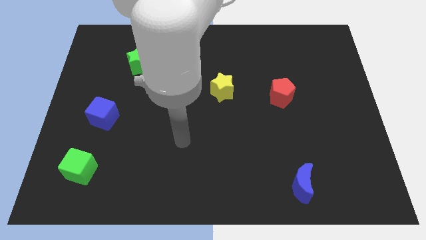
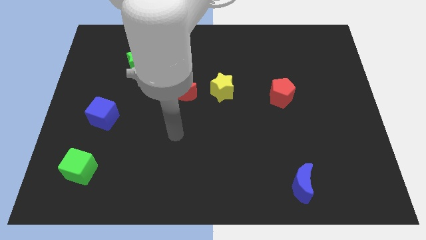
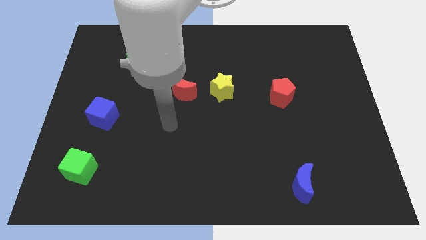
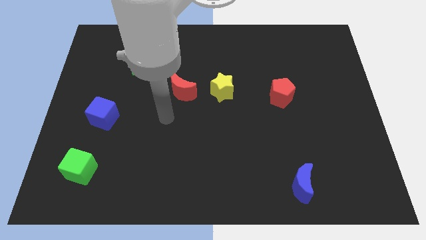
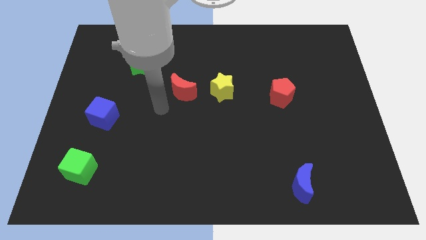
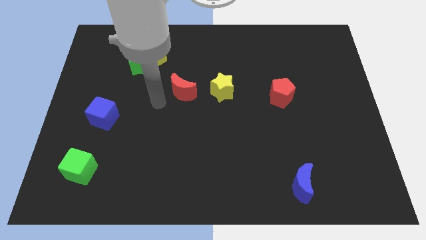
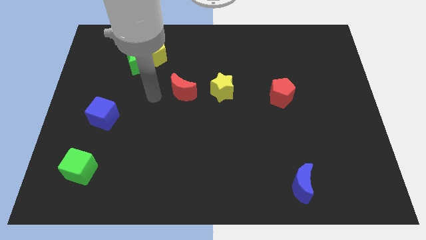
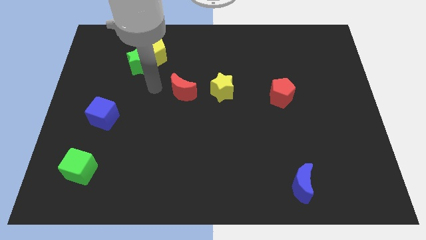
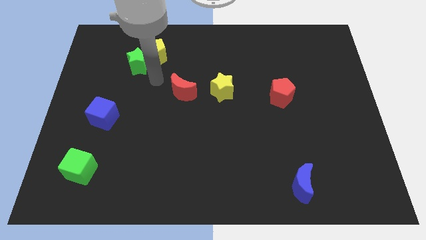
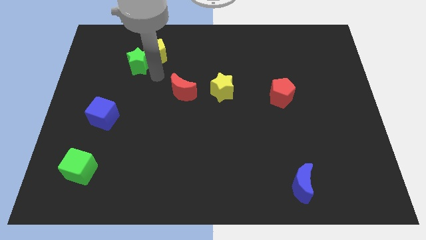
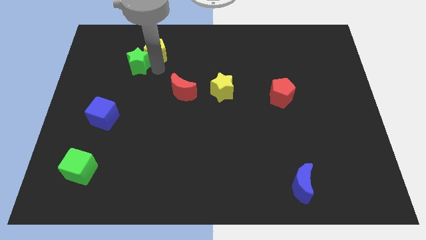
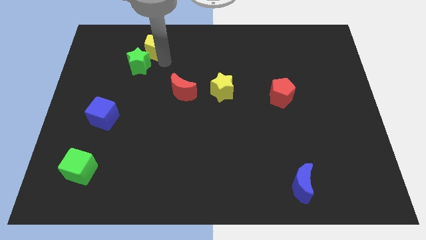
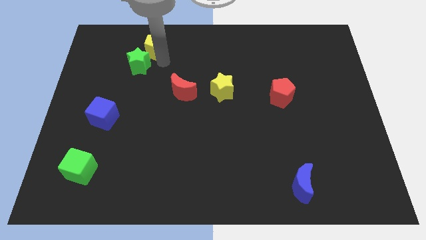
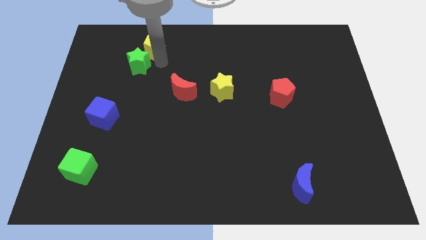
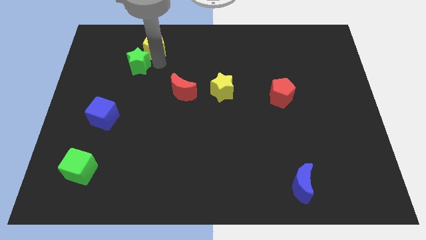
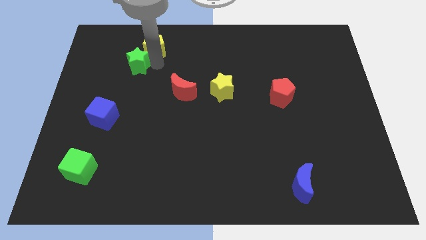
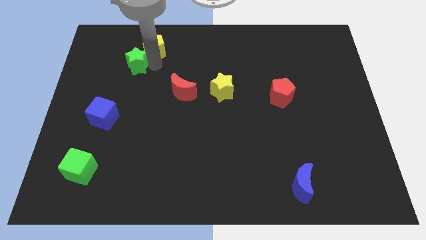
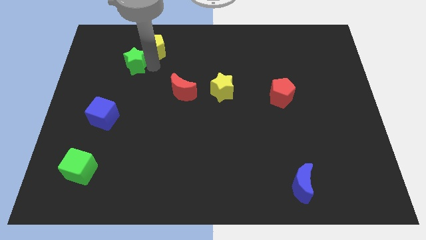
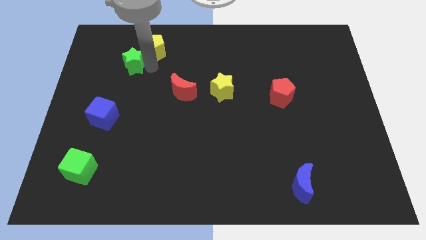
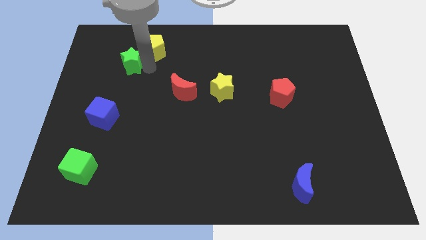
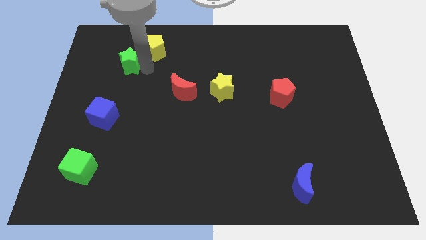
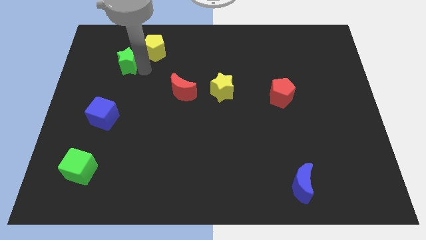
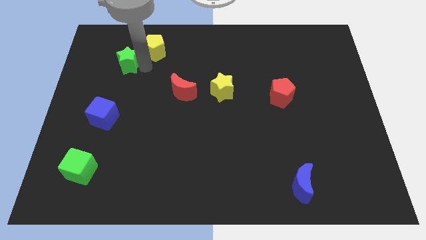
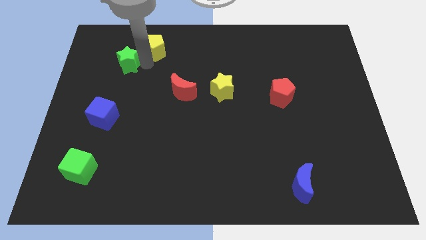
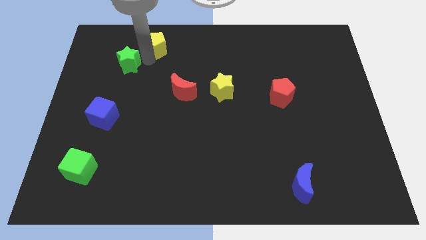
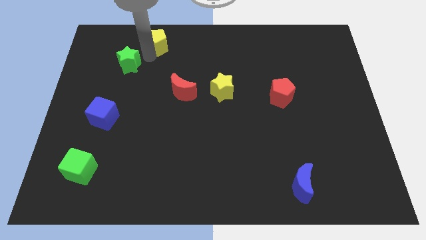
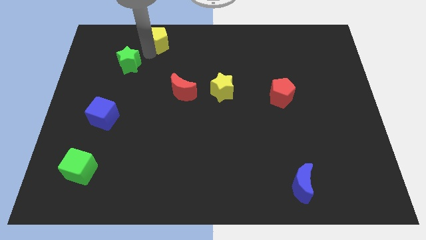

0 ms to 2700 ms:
move the green star away from the yellow pentagon

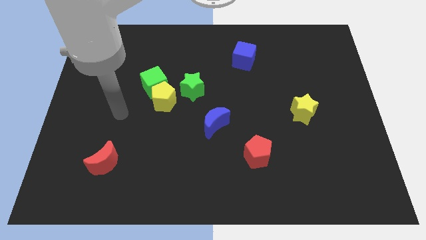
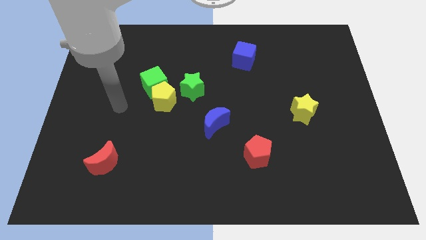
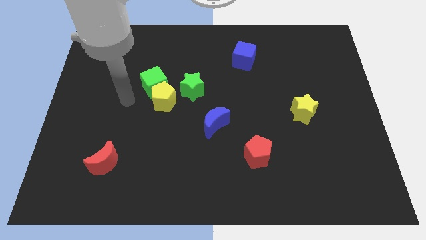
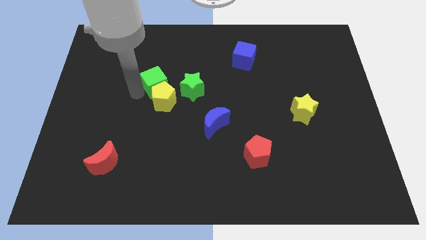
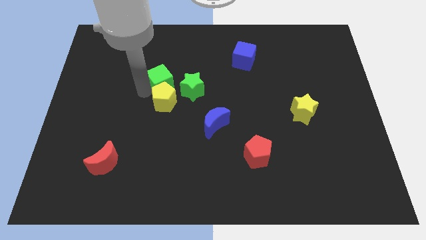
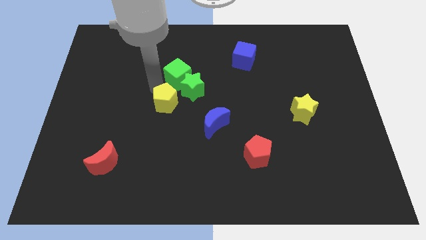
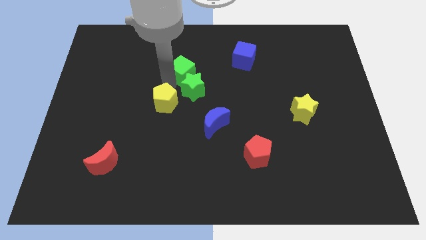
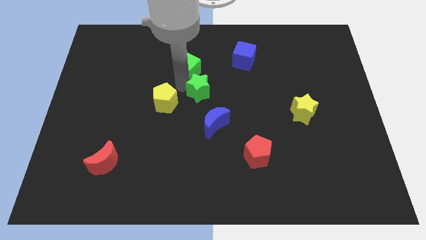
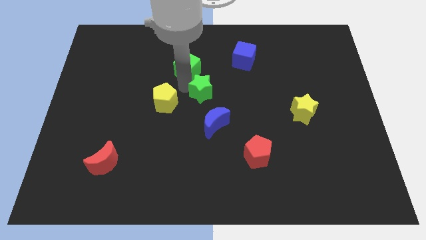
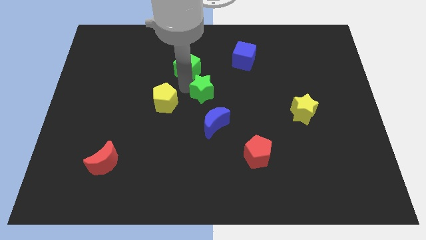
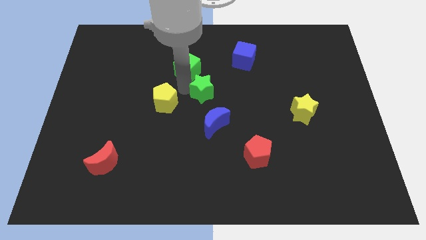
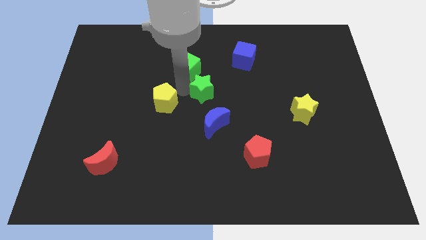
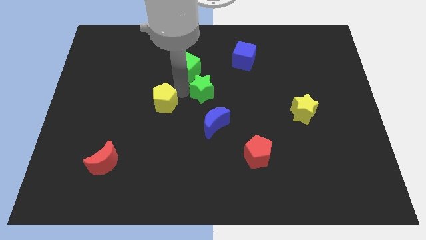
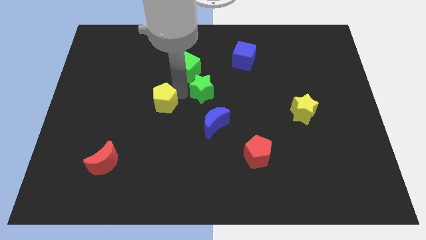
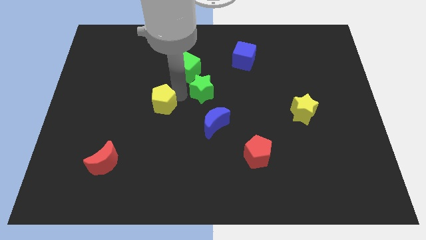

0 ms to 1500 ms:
move the yellow pentagon away from the green cube and green star

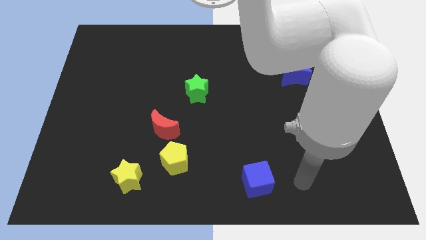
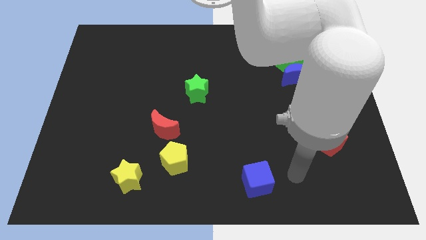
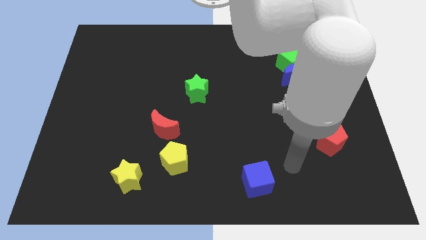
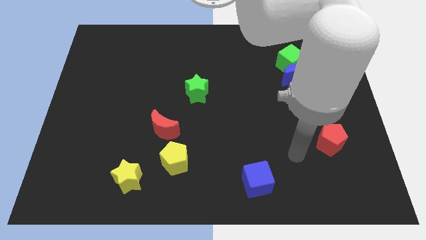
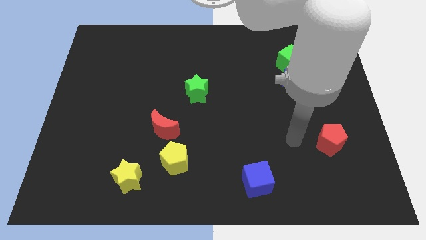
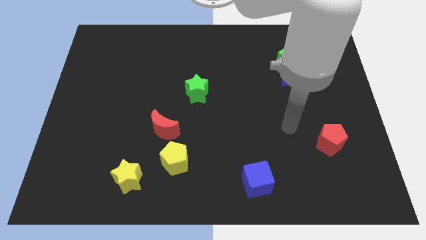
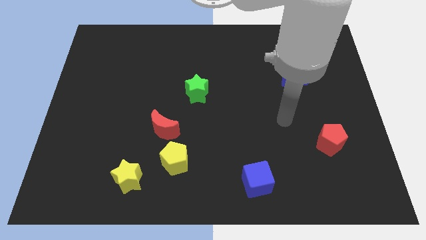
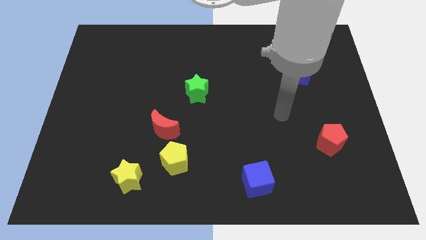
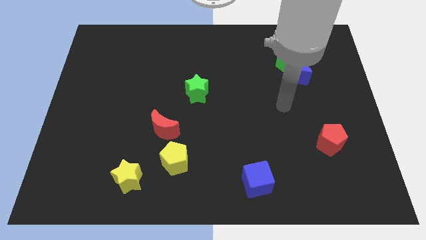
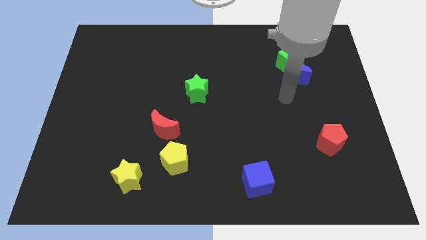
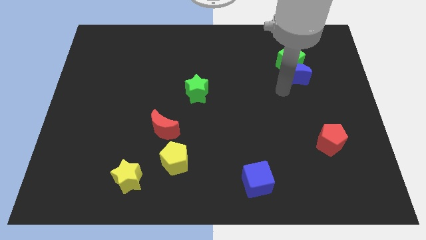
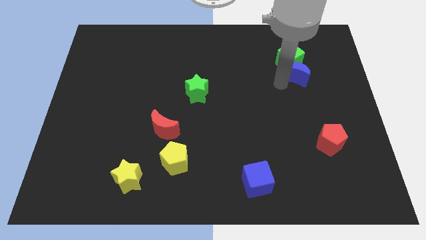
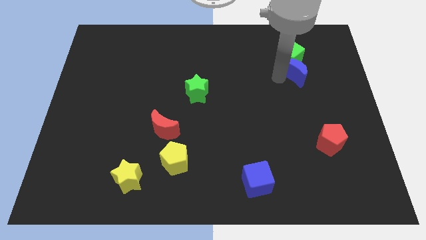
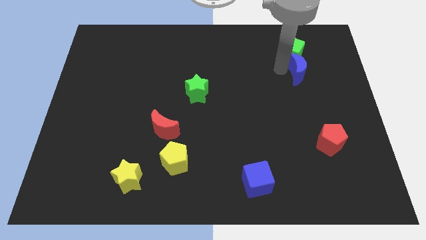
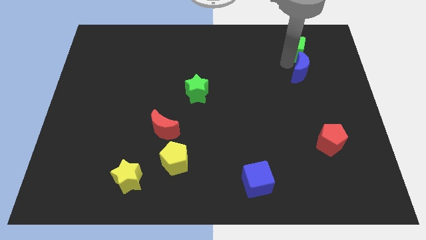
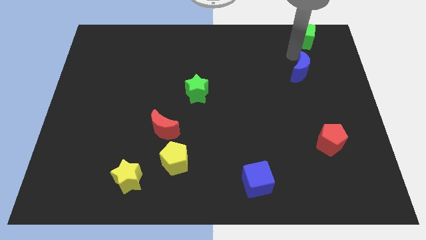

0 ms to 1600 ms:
move the blue moon away from the green cube

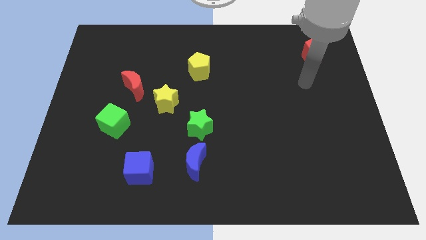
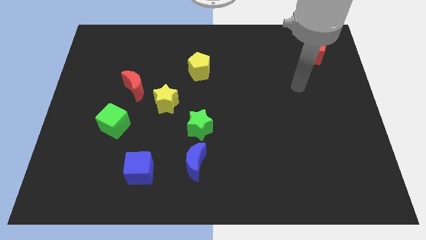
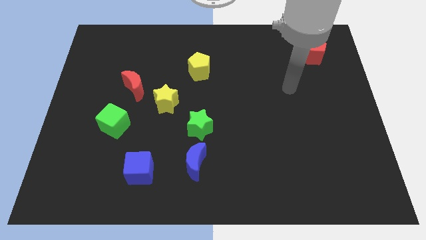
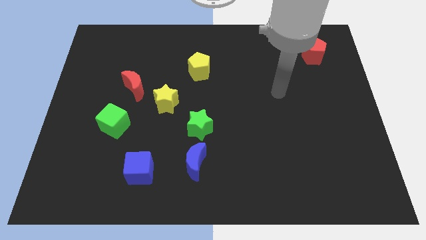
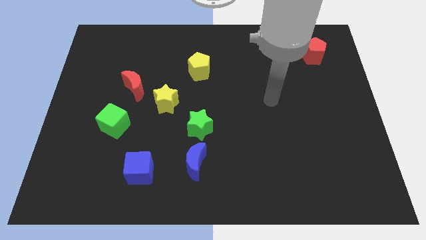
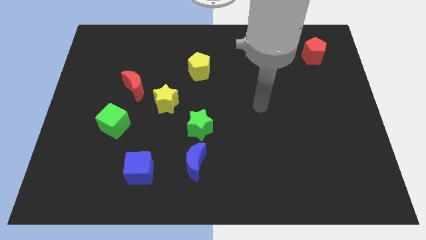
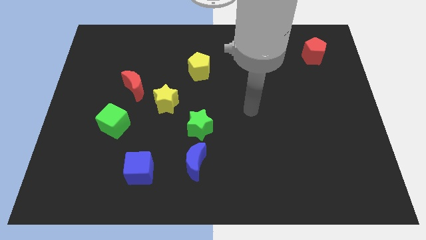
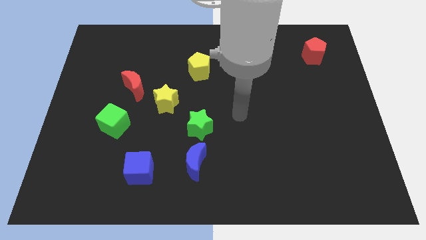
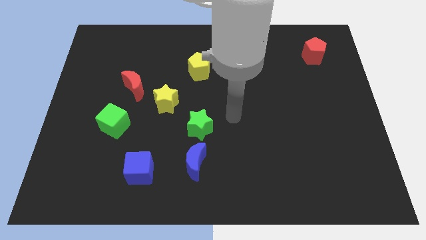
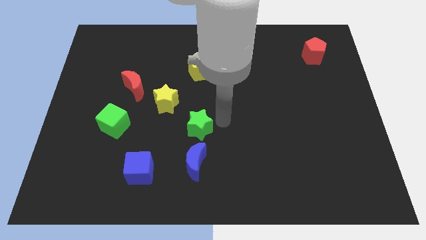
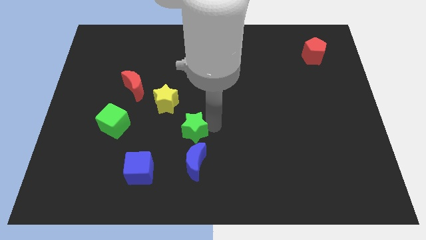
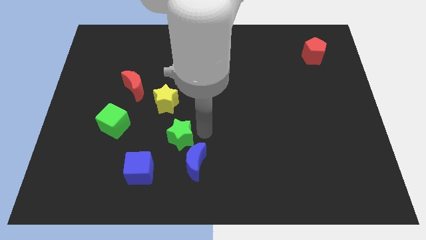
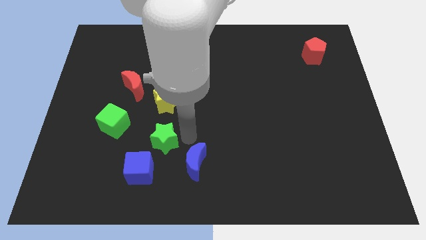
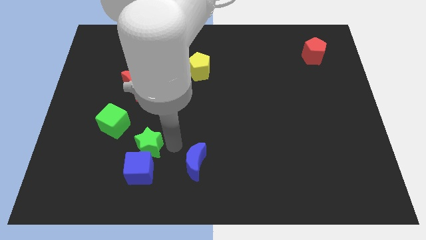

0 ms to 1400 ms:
pull the blue moon apart from the green star

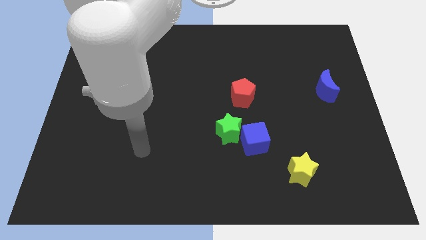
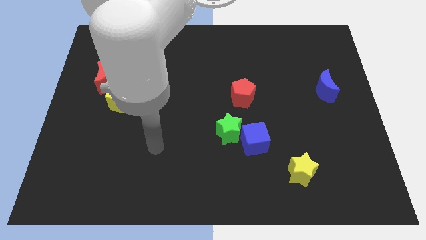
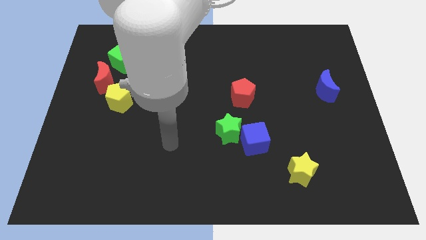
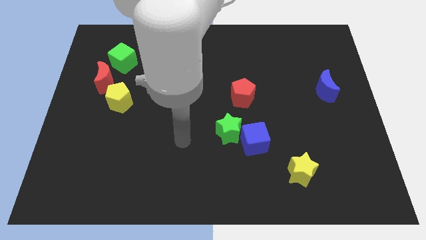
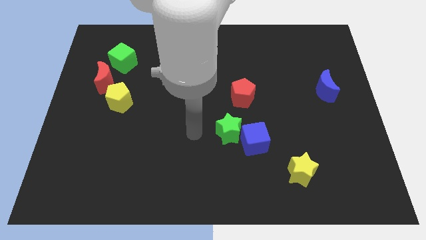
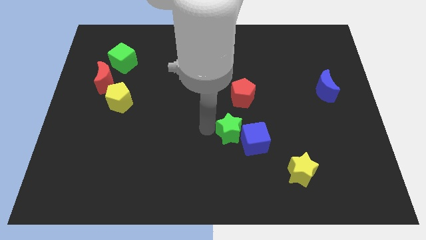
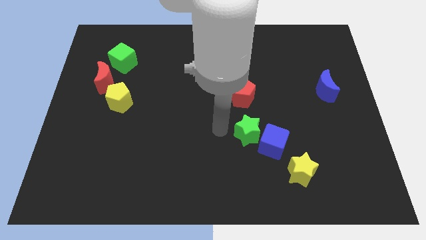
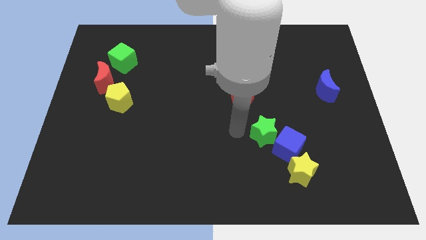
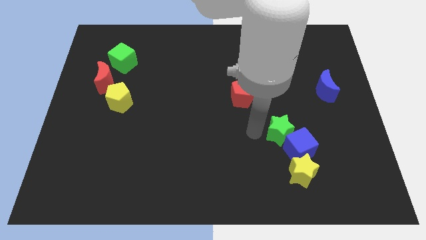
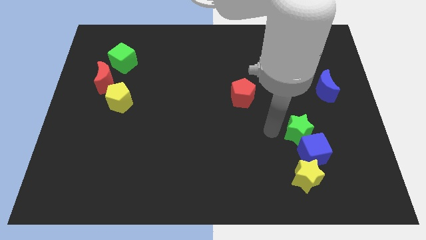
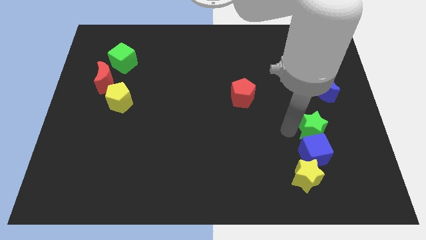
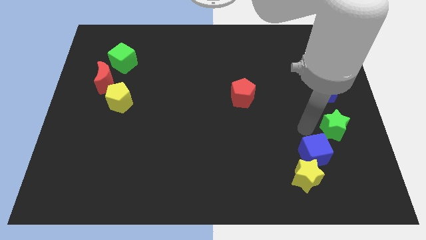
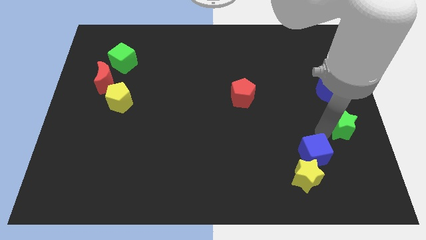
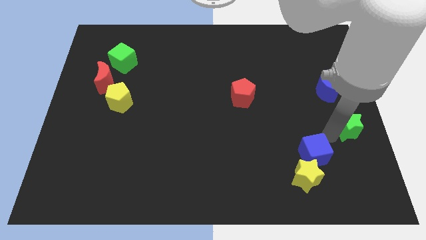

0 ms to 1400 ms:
move the blue cube away from the green star

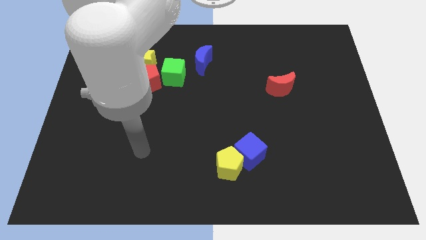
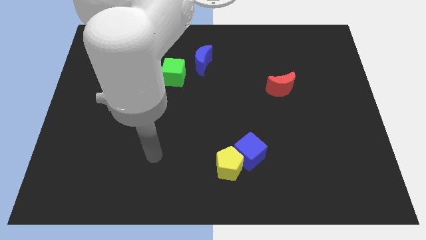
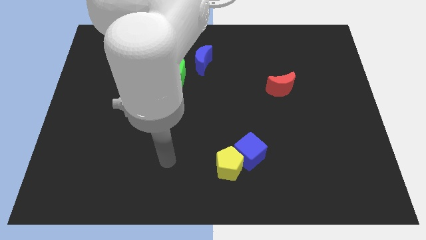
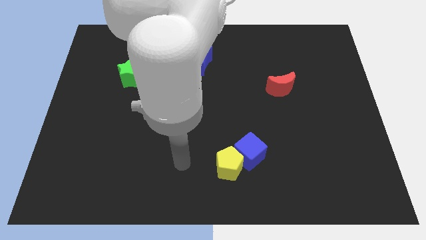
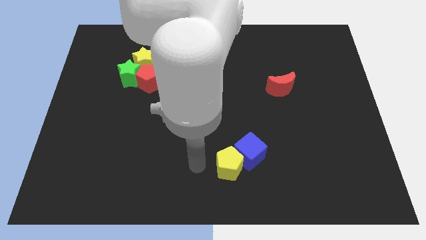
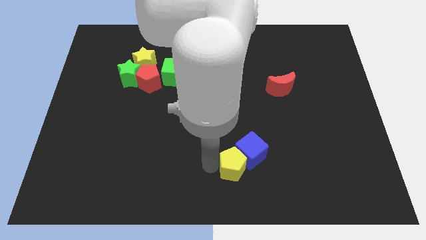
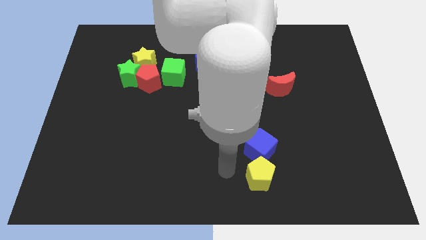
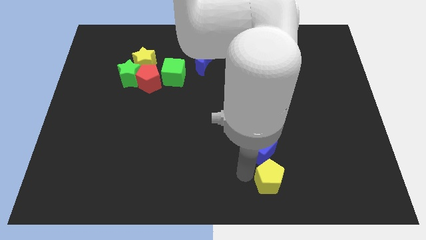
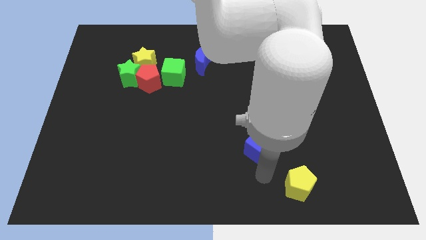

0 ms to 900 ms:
move the blue cube away from the yellow pentagon
